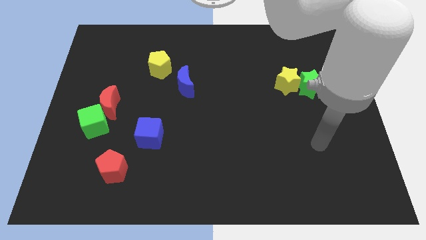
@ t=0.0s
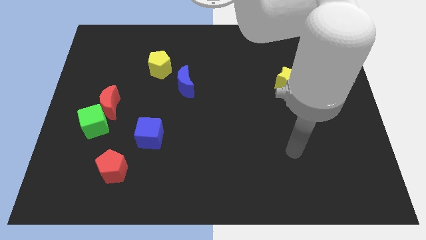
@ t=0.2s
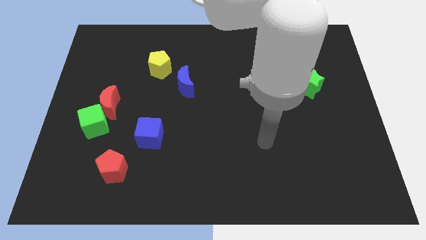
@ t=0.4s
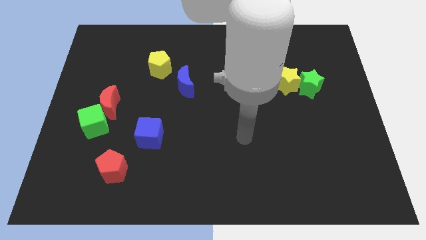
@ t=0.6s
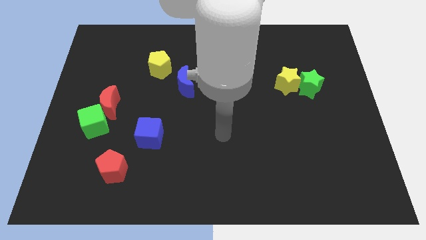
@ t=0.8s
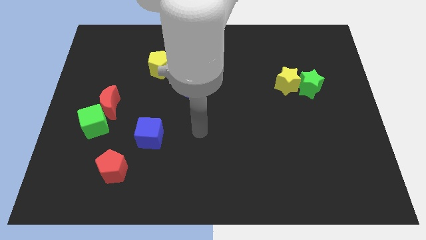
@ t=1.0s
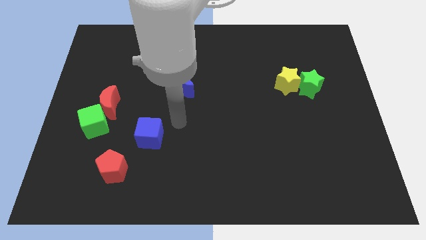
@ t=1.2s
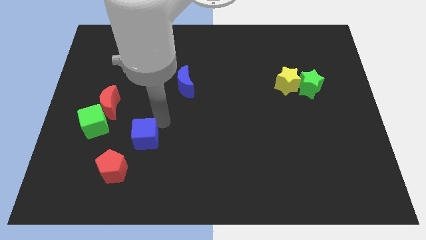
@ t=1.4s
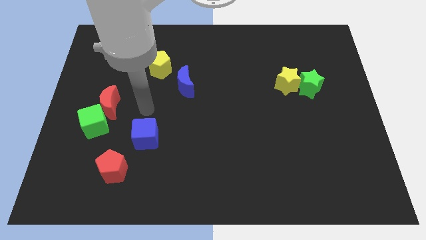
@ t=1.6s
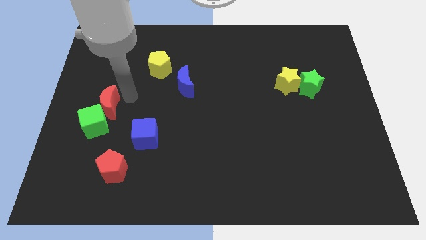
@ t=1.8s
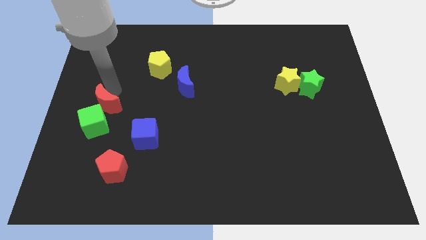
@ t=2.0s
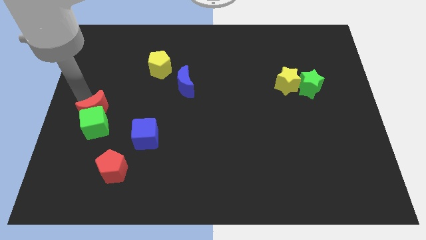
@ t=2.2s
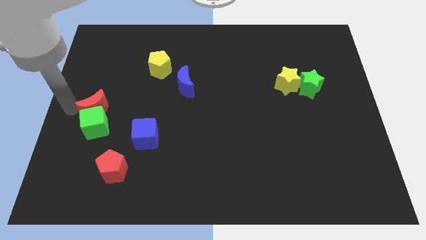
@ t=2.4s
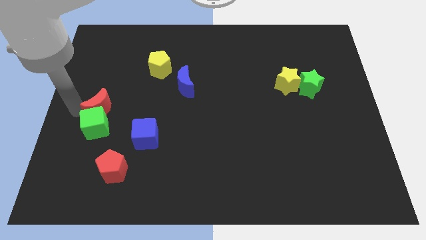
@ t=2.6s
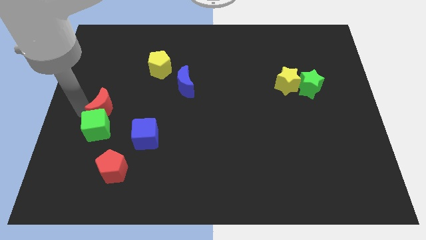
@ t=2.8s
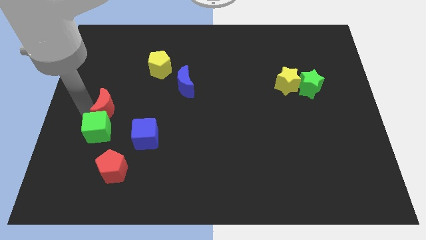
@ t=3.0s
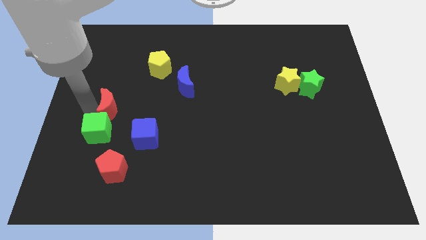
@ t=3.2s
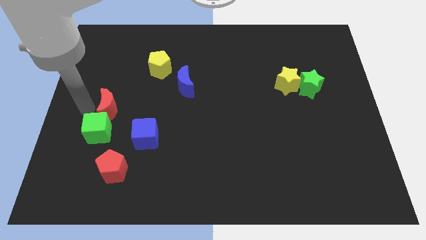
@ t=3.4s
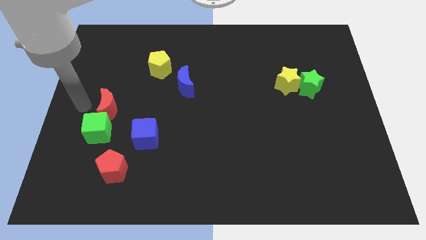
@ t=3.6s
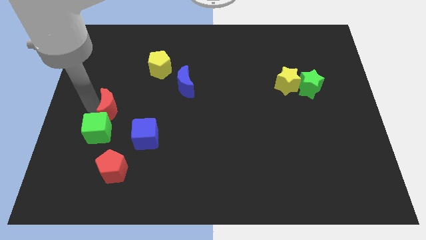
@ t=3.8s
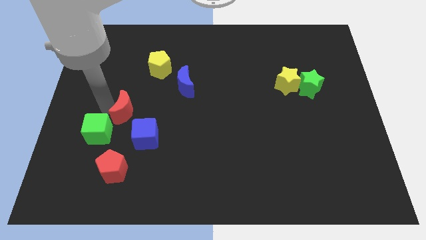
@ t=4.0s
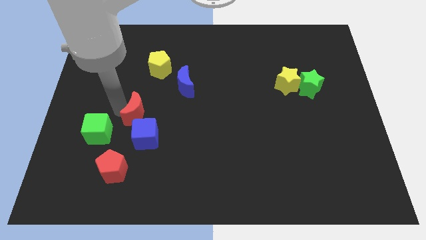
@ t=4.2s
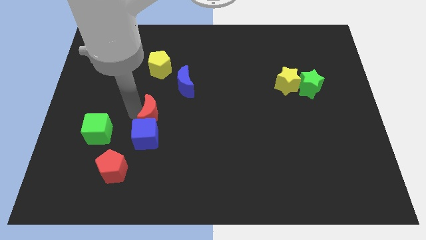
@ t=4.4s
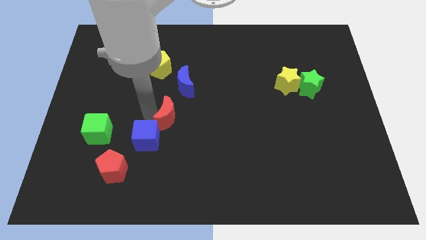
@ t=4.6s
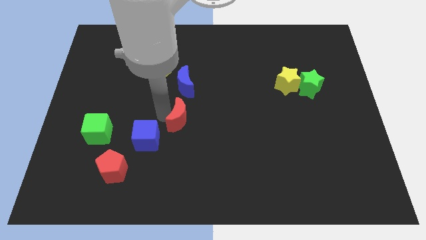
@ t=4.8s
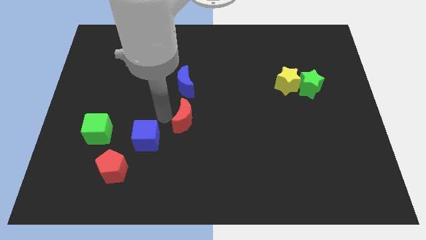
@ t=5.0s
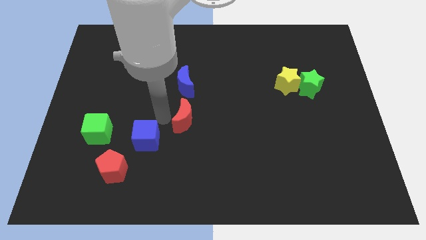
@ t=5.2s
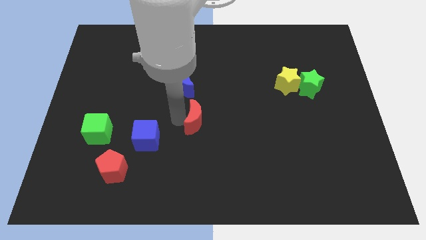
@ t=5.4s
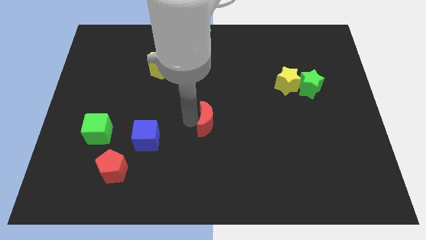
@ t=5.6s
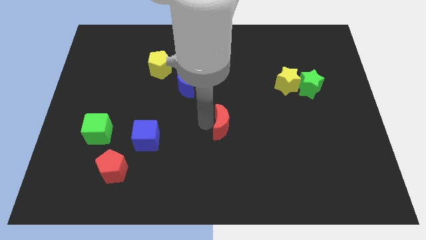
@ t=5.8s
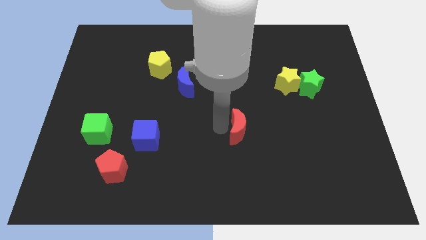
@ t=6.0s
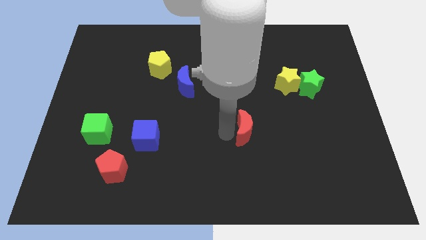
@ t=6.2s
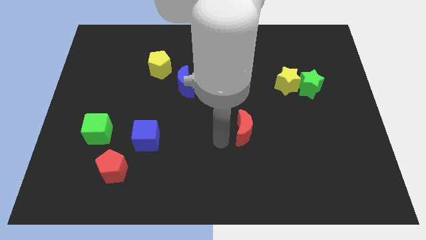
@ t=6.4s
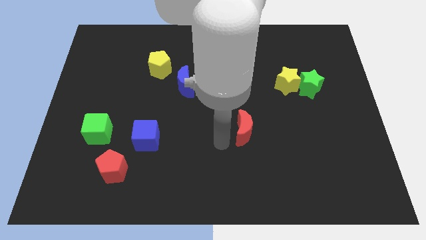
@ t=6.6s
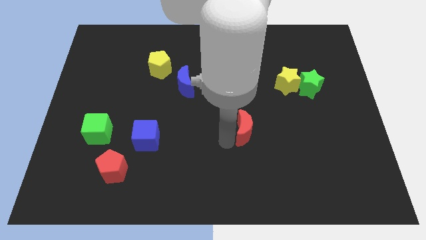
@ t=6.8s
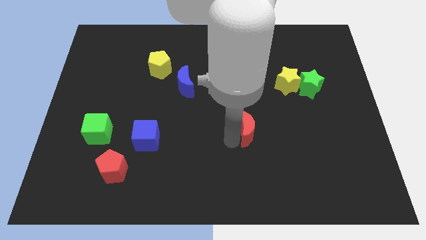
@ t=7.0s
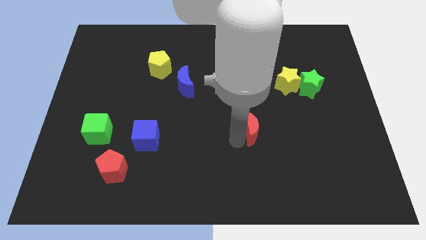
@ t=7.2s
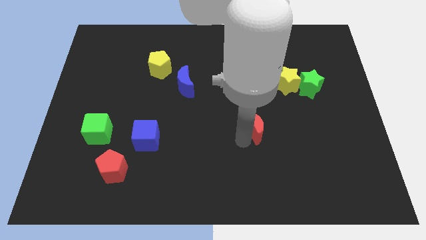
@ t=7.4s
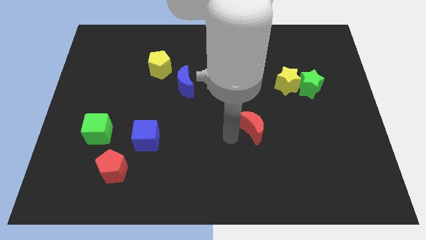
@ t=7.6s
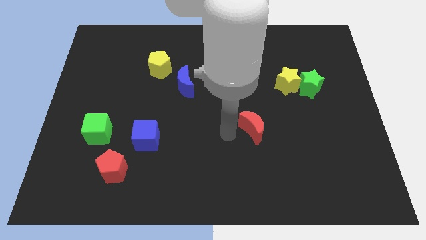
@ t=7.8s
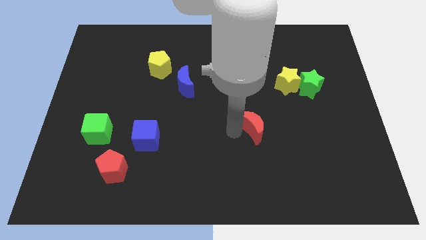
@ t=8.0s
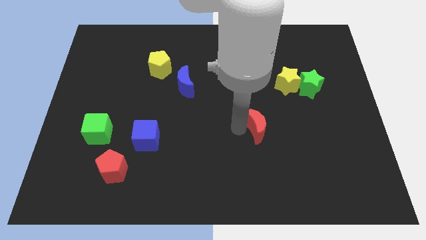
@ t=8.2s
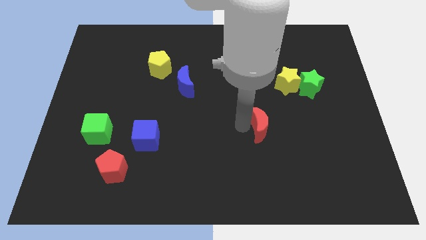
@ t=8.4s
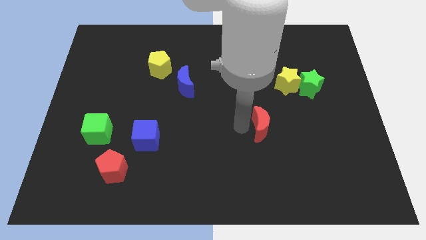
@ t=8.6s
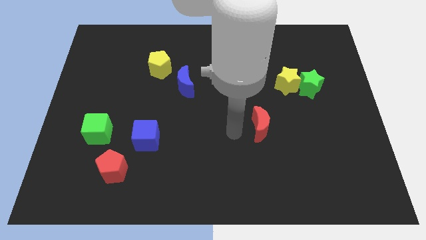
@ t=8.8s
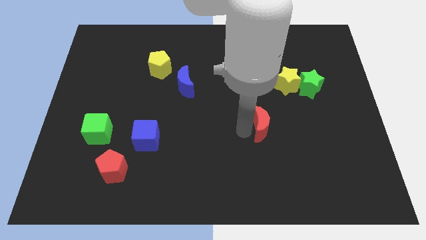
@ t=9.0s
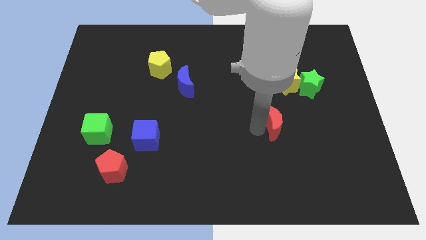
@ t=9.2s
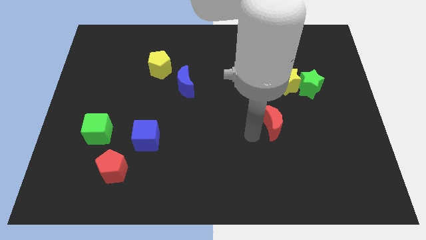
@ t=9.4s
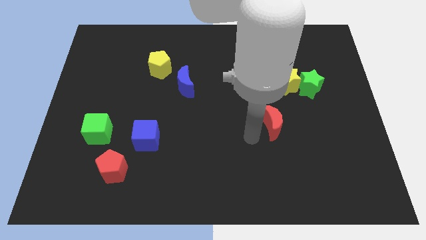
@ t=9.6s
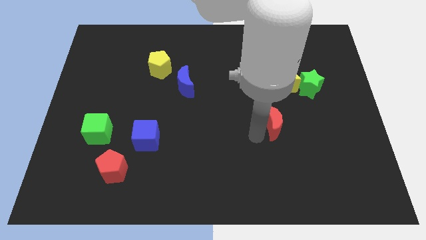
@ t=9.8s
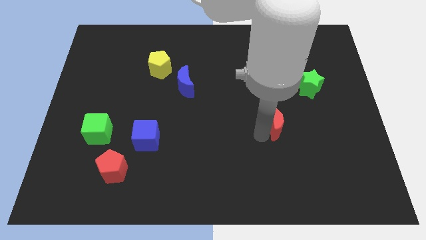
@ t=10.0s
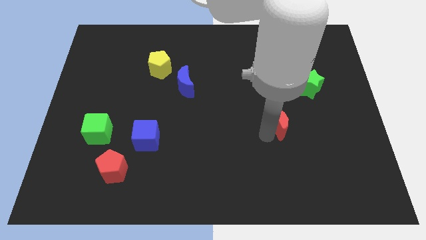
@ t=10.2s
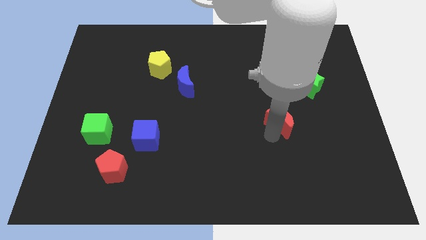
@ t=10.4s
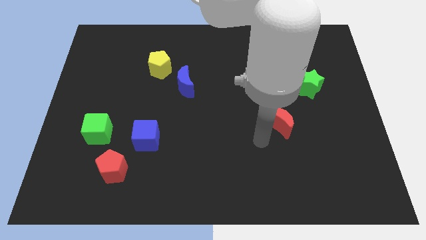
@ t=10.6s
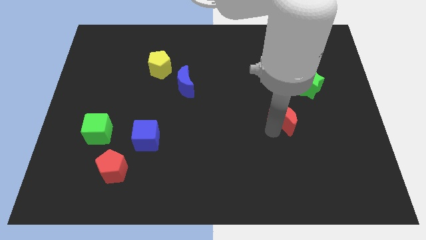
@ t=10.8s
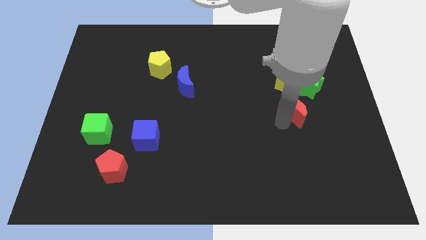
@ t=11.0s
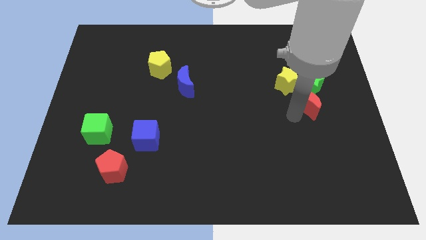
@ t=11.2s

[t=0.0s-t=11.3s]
push the red moon next to the green star

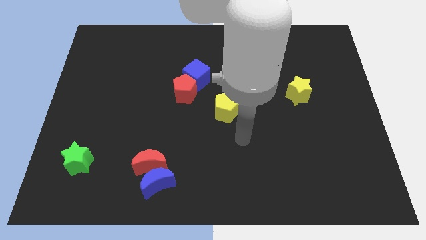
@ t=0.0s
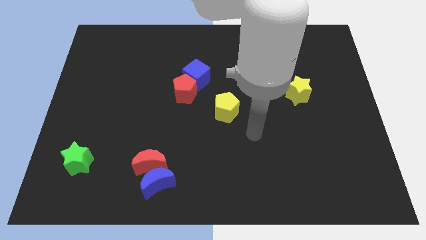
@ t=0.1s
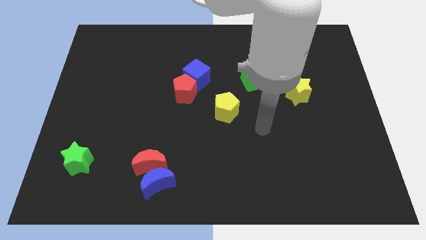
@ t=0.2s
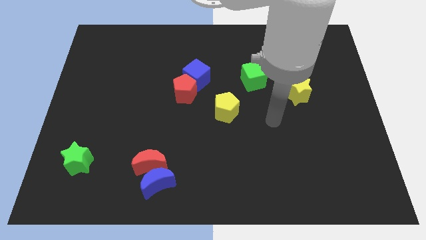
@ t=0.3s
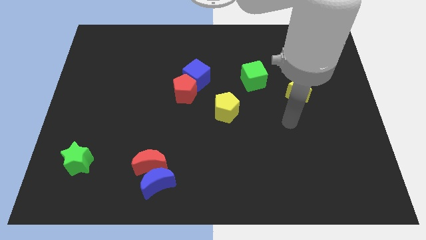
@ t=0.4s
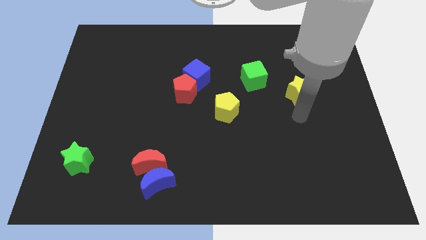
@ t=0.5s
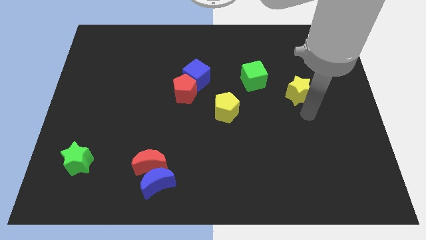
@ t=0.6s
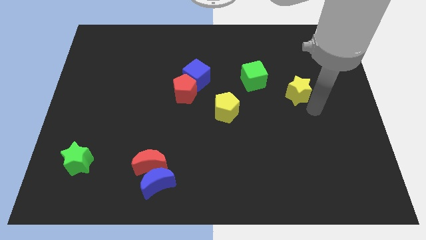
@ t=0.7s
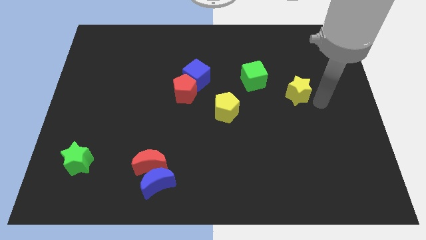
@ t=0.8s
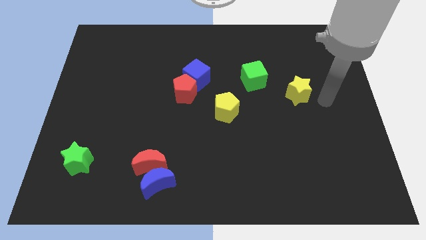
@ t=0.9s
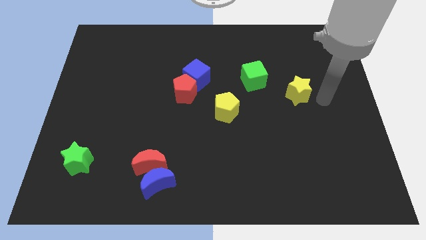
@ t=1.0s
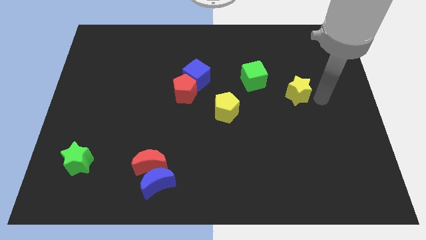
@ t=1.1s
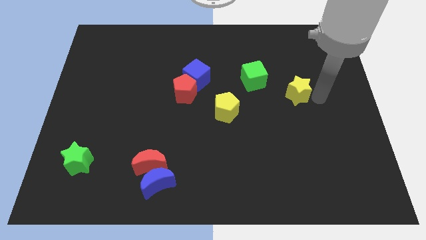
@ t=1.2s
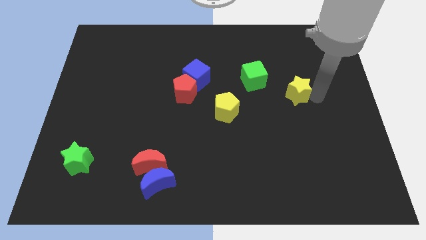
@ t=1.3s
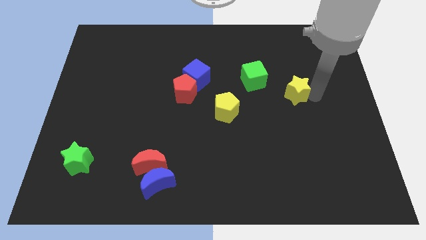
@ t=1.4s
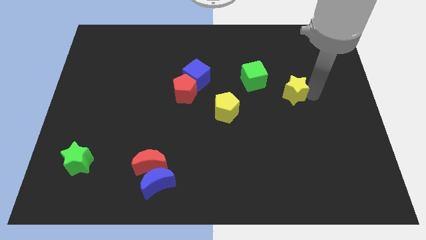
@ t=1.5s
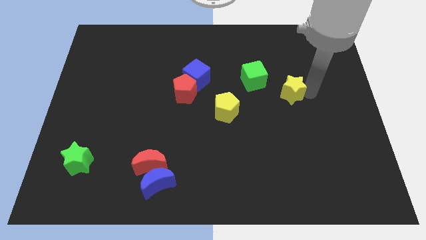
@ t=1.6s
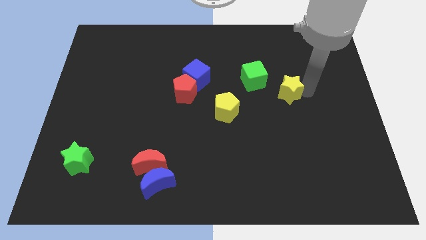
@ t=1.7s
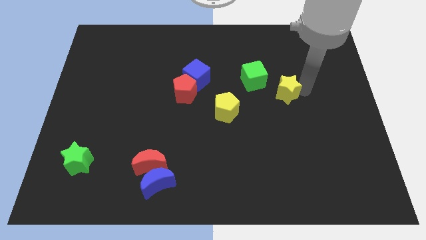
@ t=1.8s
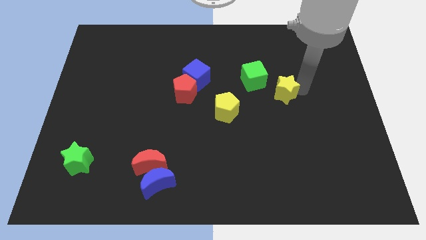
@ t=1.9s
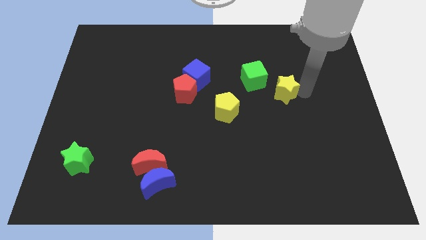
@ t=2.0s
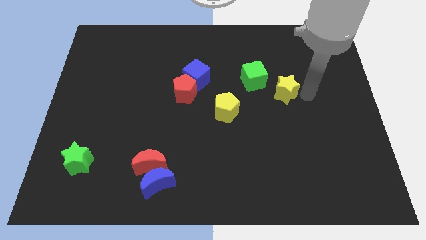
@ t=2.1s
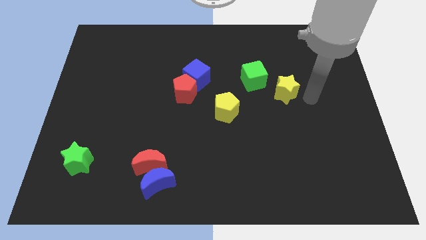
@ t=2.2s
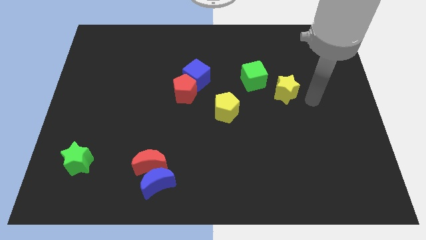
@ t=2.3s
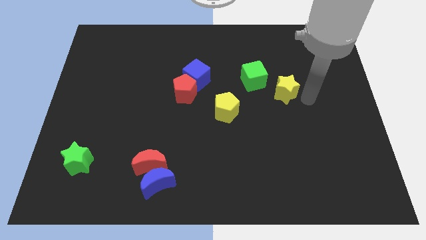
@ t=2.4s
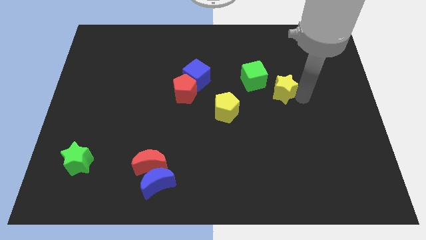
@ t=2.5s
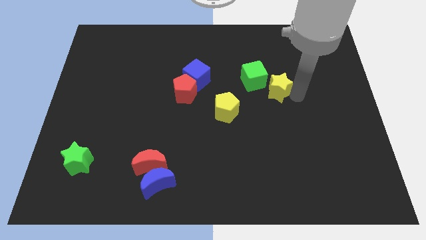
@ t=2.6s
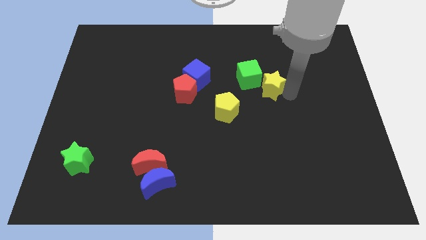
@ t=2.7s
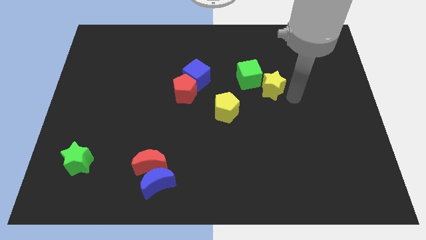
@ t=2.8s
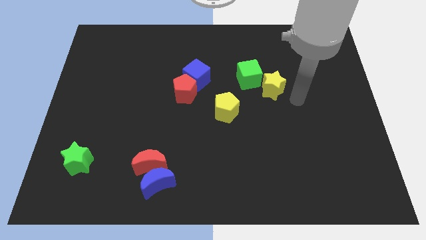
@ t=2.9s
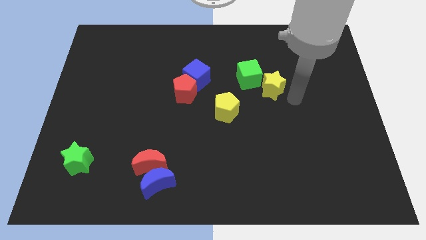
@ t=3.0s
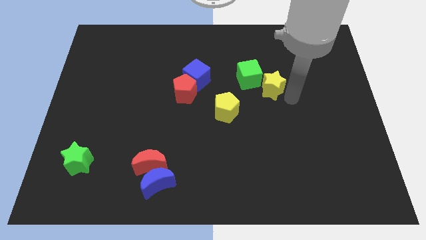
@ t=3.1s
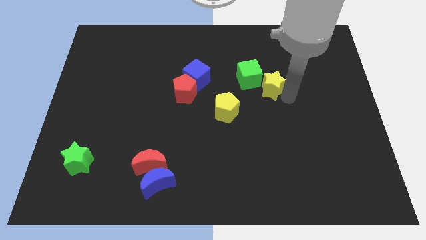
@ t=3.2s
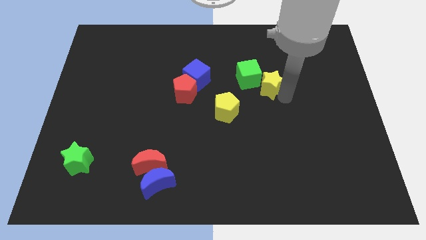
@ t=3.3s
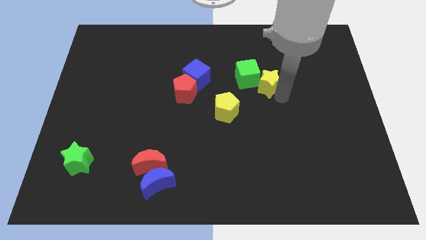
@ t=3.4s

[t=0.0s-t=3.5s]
push the yellow star close to the green cube
